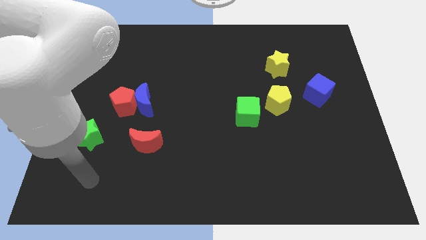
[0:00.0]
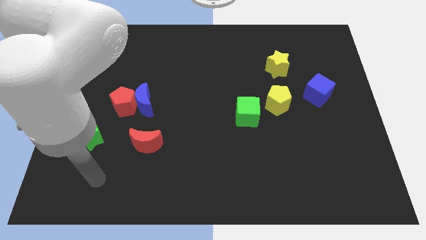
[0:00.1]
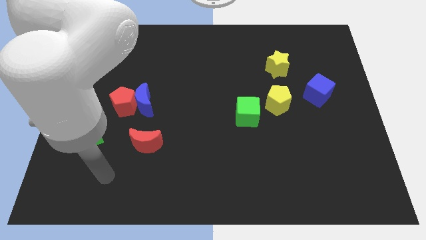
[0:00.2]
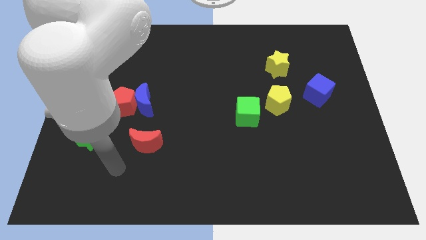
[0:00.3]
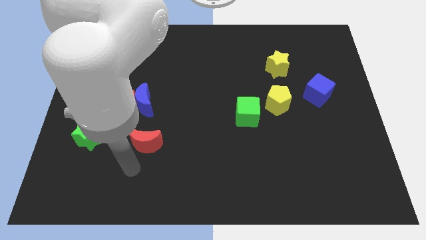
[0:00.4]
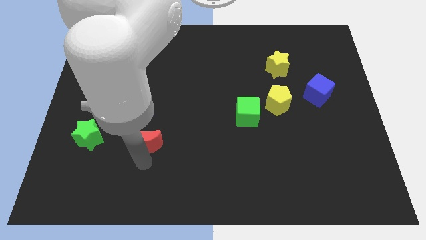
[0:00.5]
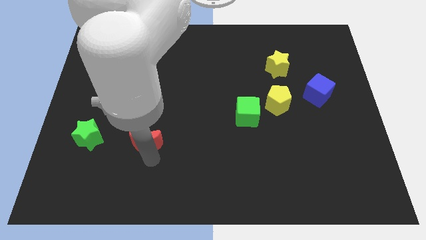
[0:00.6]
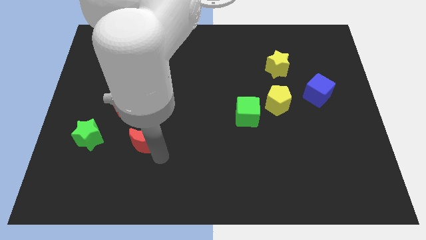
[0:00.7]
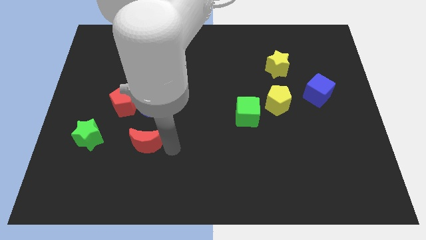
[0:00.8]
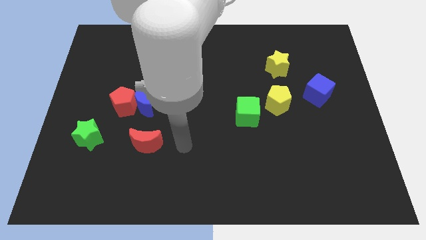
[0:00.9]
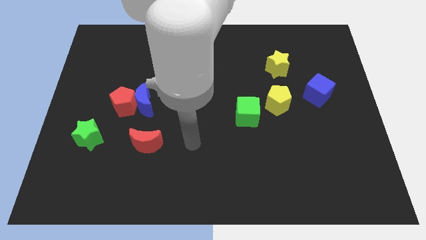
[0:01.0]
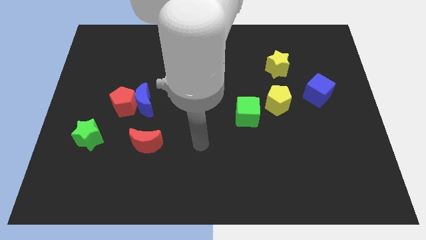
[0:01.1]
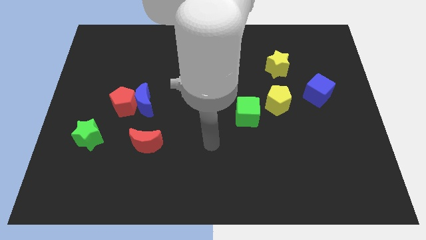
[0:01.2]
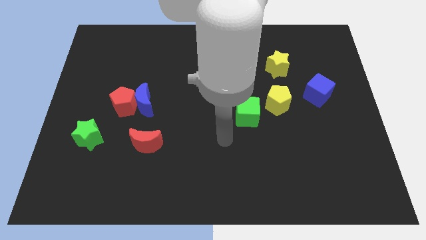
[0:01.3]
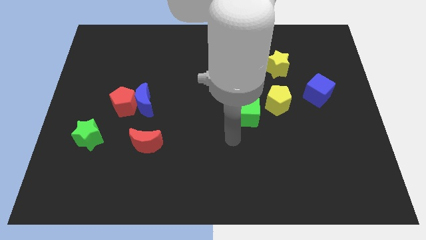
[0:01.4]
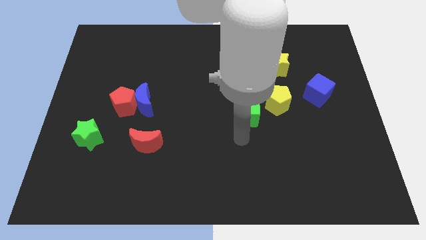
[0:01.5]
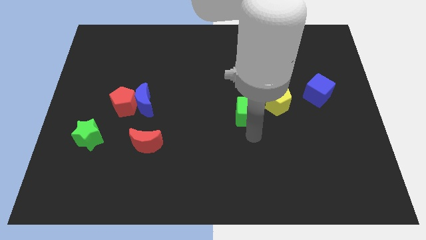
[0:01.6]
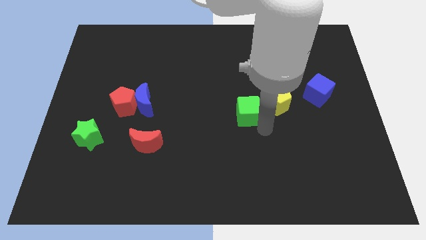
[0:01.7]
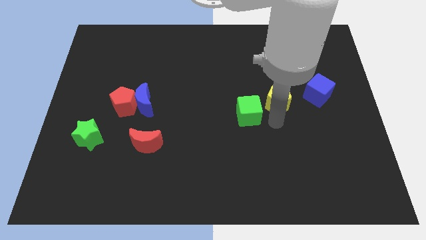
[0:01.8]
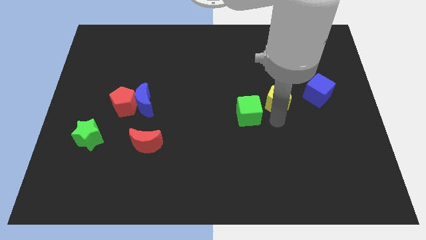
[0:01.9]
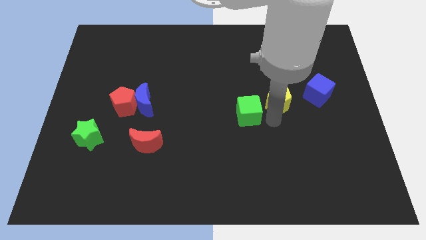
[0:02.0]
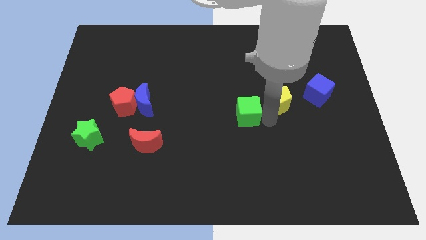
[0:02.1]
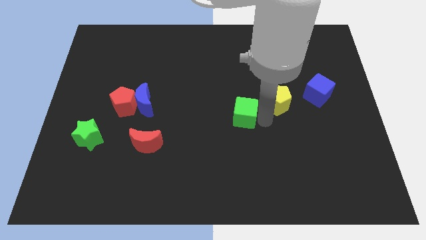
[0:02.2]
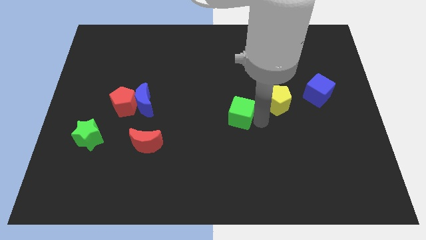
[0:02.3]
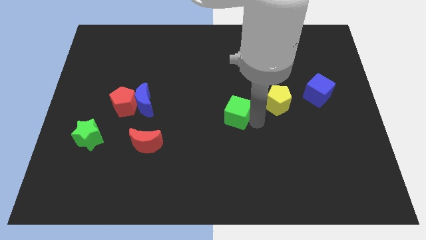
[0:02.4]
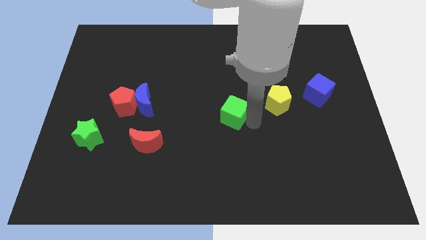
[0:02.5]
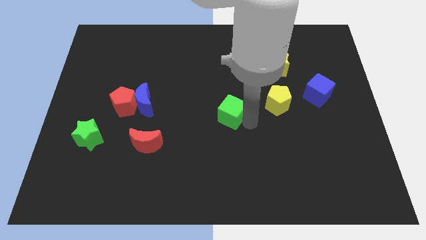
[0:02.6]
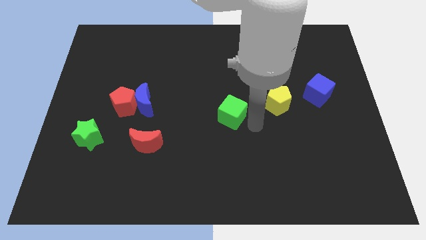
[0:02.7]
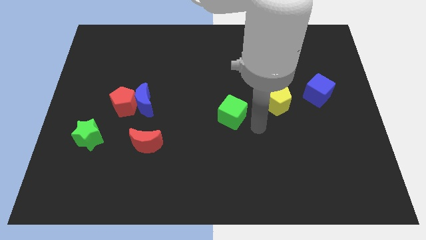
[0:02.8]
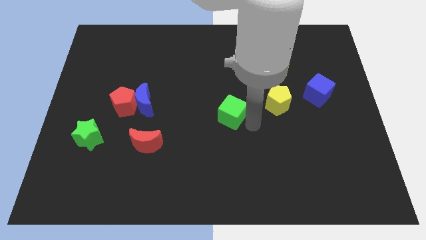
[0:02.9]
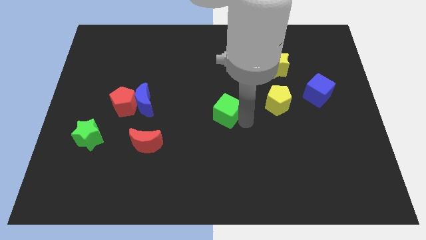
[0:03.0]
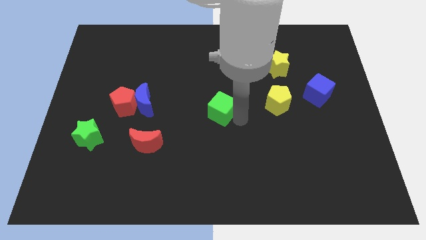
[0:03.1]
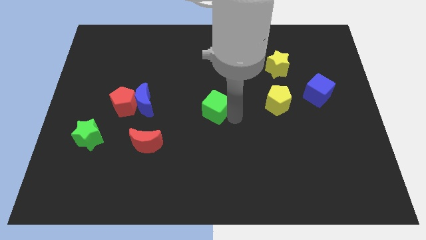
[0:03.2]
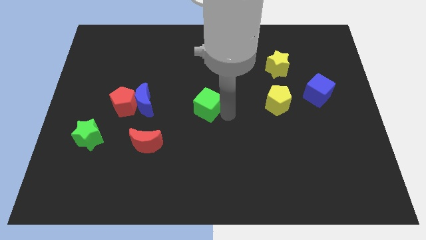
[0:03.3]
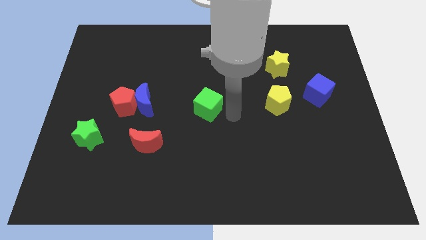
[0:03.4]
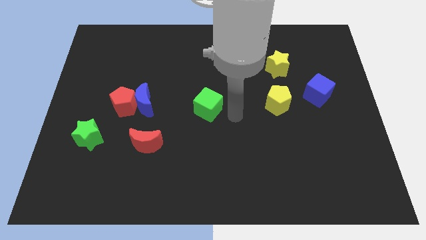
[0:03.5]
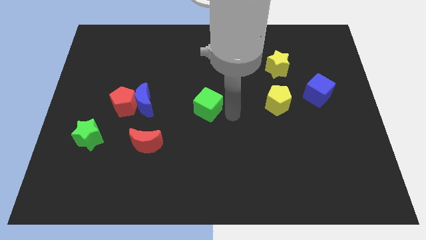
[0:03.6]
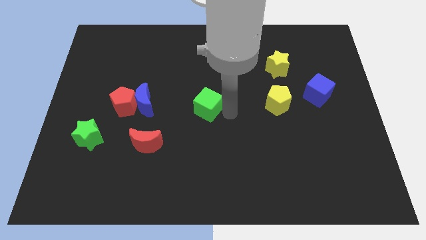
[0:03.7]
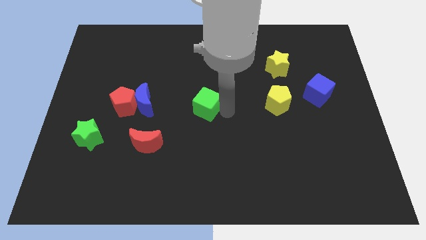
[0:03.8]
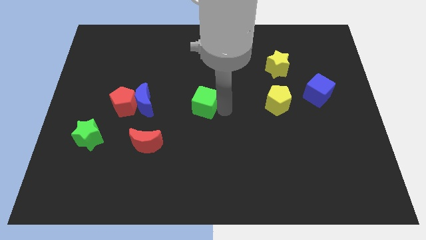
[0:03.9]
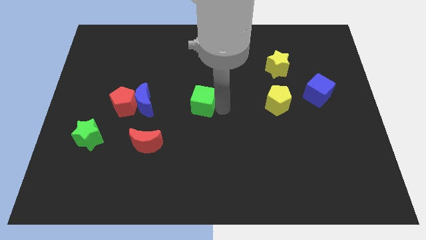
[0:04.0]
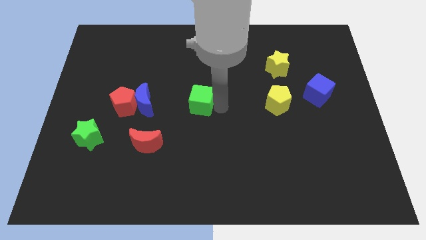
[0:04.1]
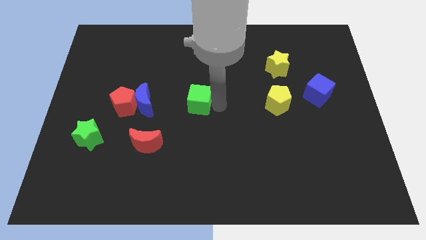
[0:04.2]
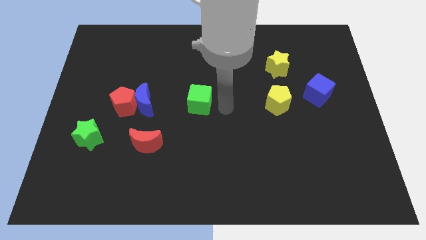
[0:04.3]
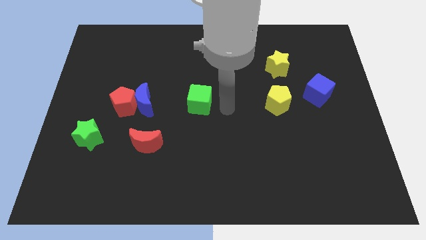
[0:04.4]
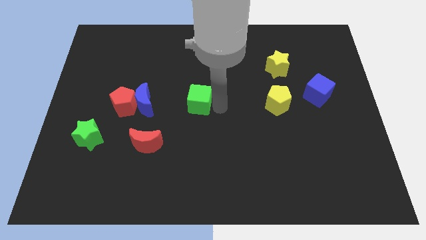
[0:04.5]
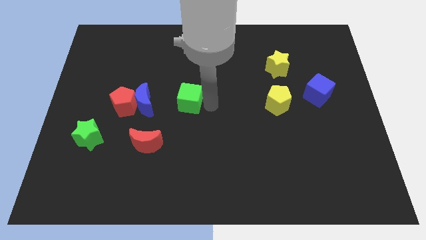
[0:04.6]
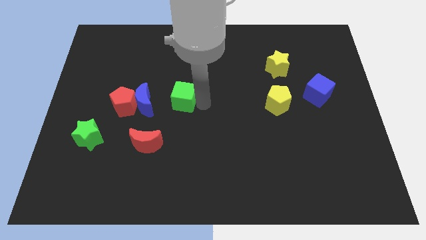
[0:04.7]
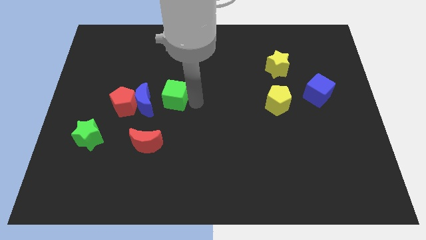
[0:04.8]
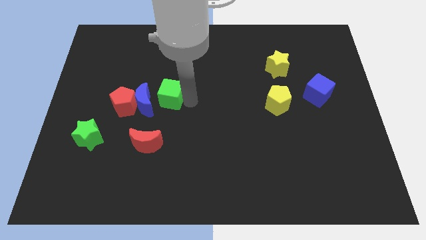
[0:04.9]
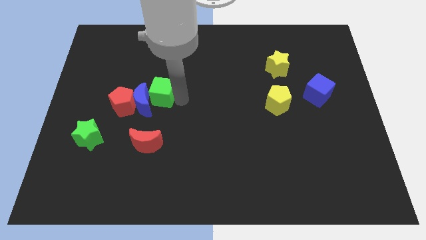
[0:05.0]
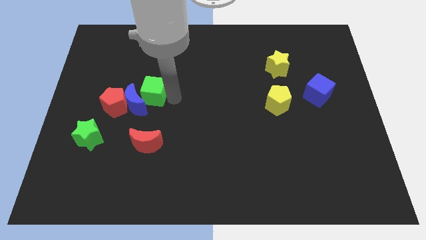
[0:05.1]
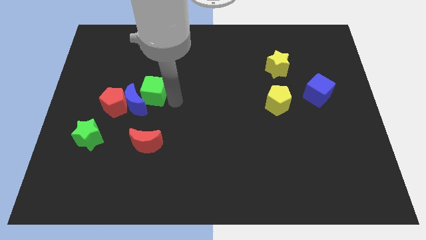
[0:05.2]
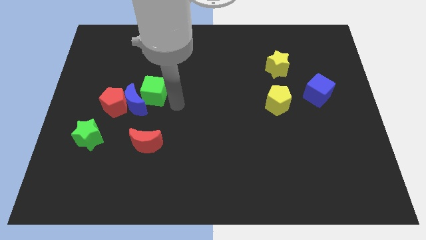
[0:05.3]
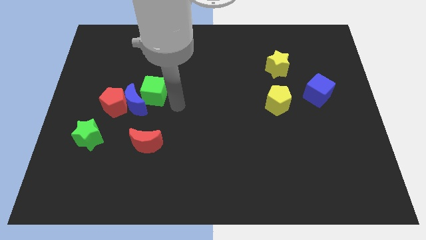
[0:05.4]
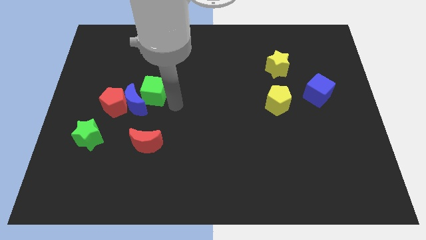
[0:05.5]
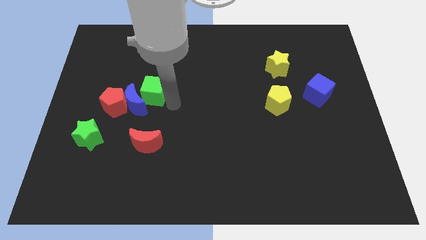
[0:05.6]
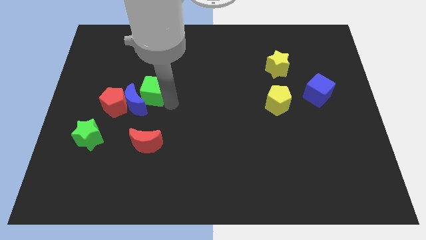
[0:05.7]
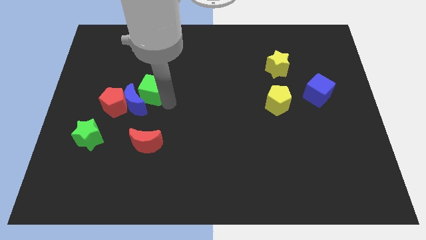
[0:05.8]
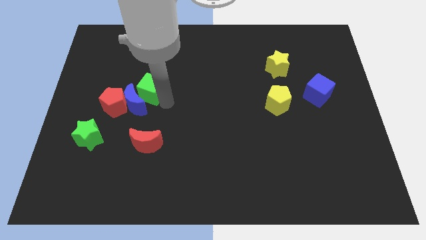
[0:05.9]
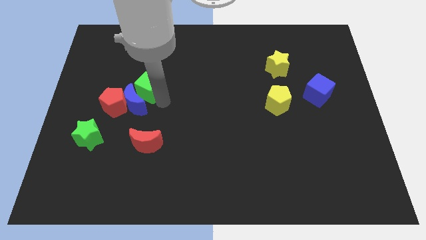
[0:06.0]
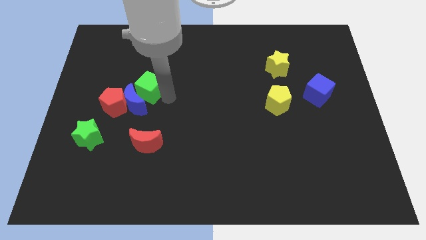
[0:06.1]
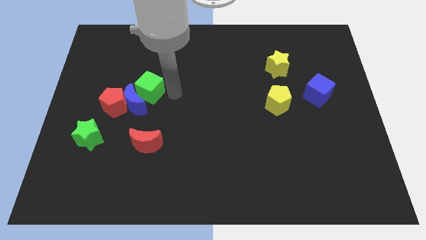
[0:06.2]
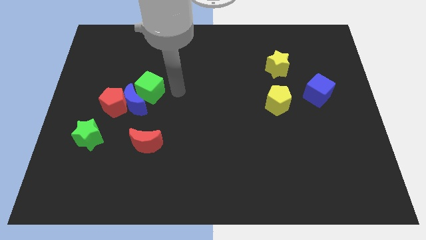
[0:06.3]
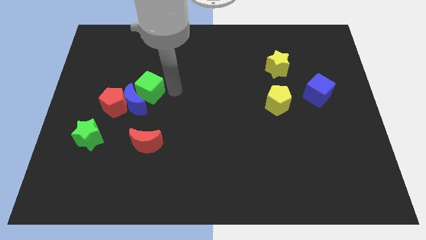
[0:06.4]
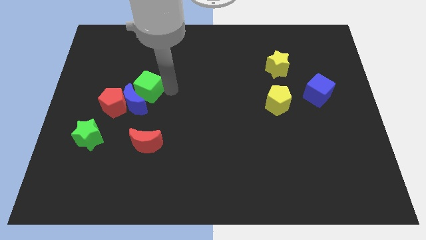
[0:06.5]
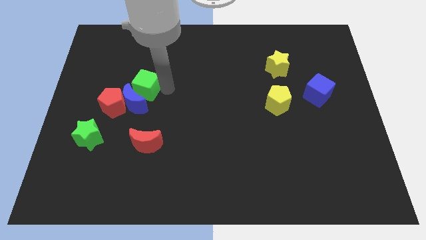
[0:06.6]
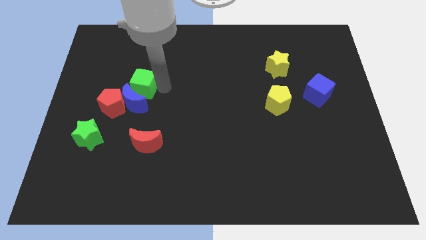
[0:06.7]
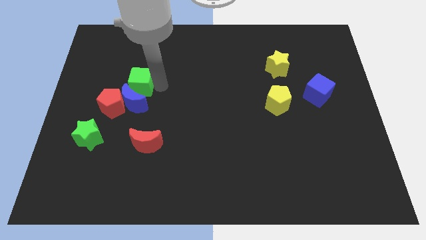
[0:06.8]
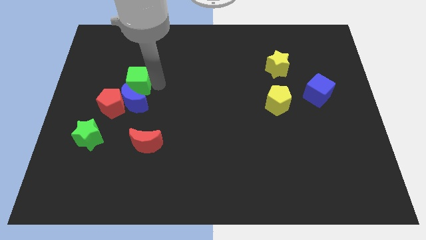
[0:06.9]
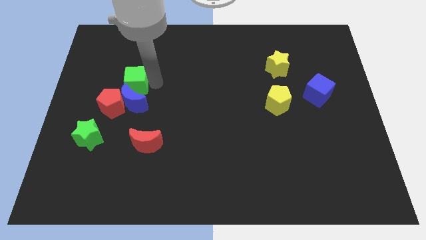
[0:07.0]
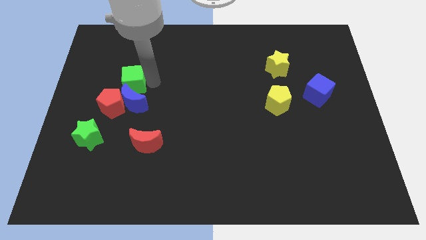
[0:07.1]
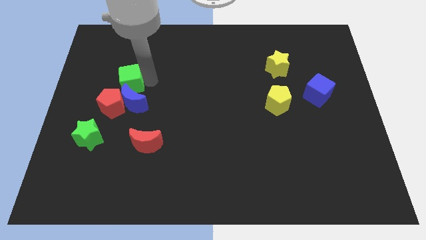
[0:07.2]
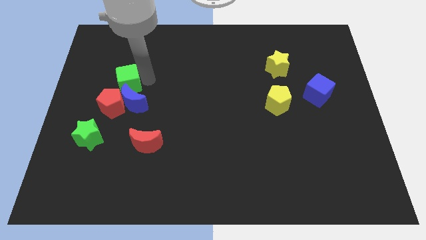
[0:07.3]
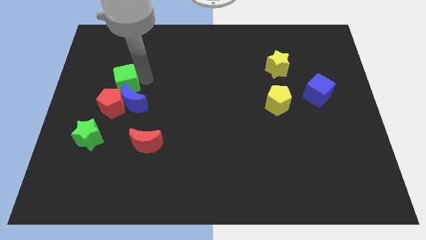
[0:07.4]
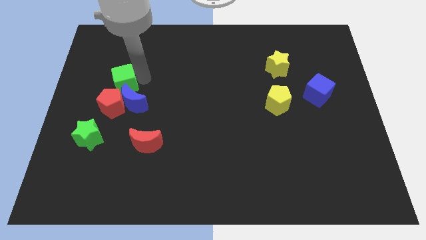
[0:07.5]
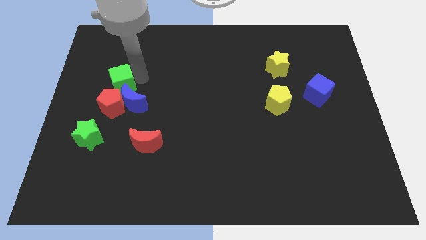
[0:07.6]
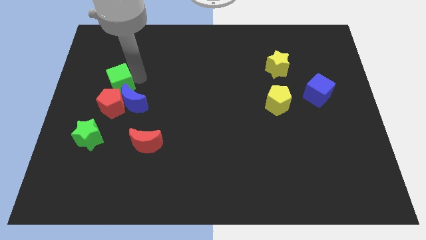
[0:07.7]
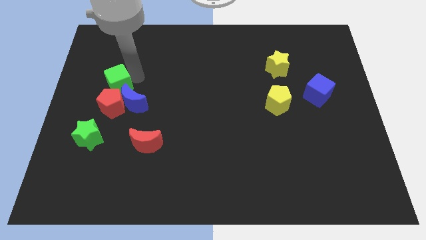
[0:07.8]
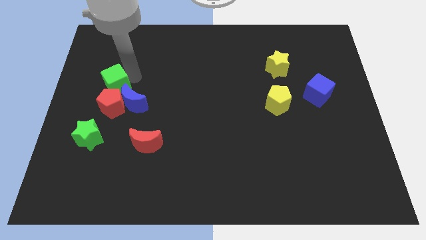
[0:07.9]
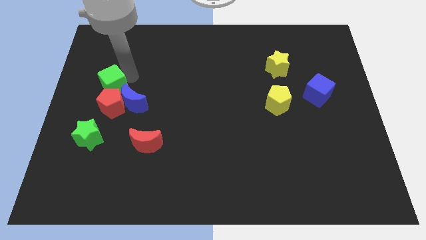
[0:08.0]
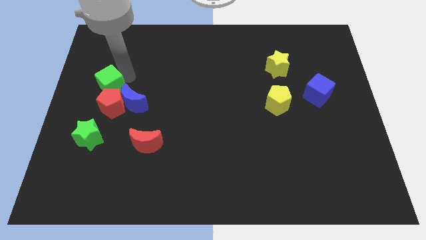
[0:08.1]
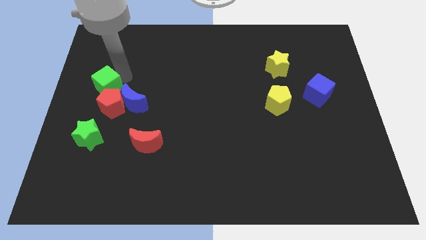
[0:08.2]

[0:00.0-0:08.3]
push the green cube to the center left
